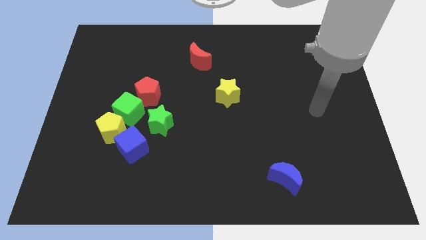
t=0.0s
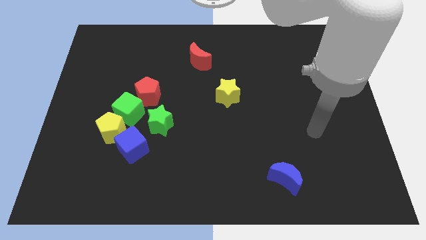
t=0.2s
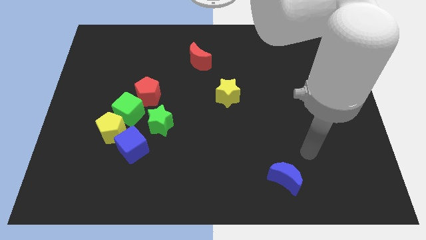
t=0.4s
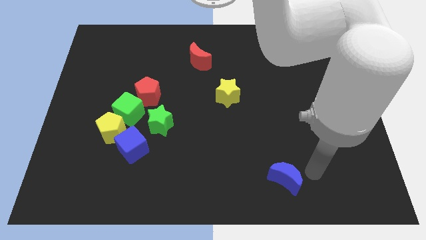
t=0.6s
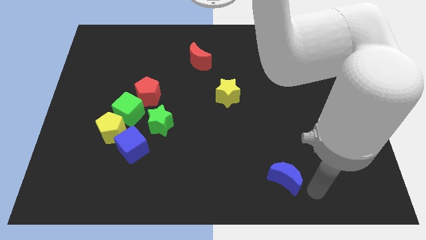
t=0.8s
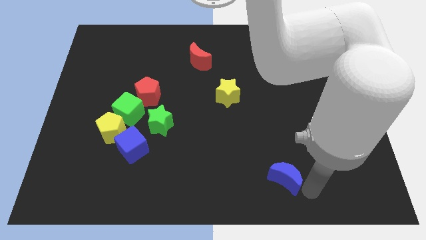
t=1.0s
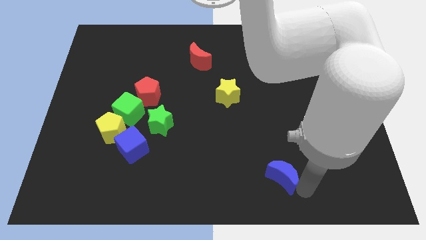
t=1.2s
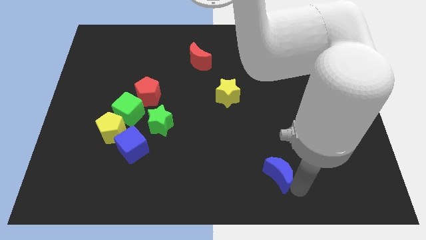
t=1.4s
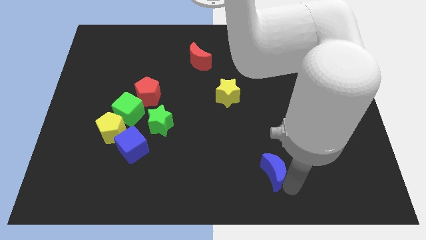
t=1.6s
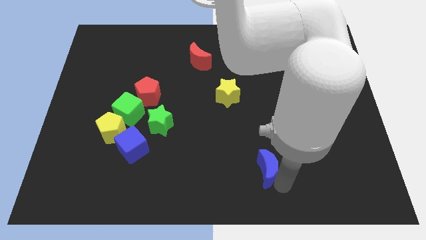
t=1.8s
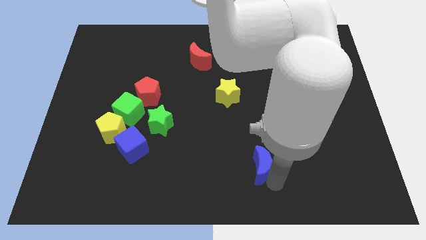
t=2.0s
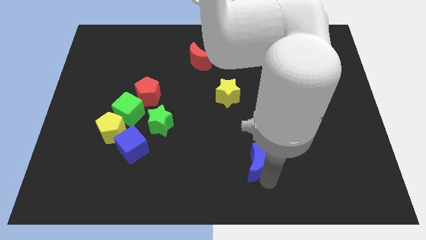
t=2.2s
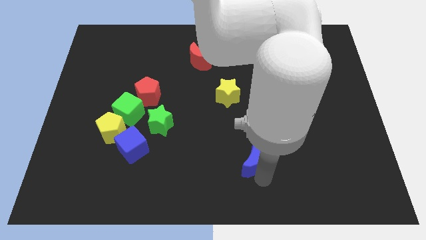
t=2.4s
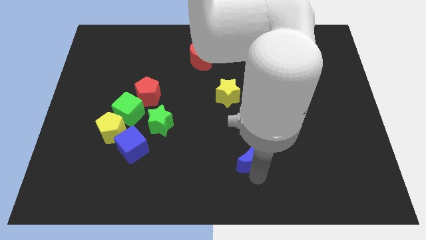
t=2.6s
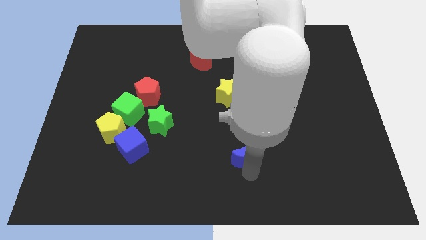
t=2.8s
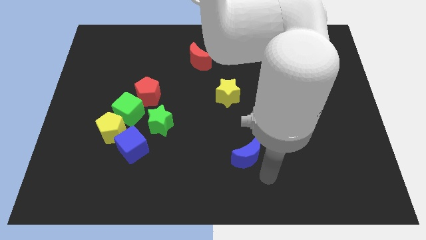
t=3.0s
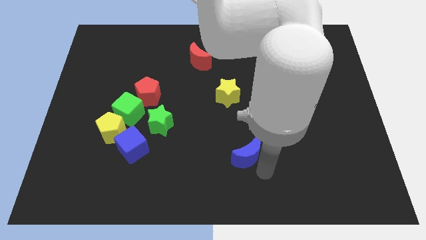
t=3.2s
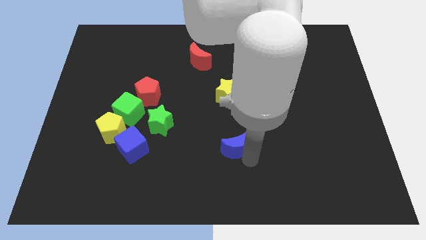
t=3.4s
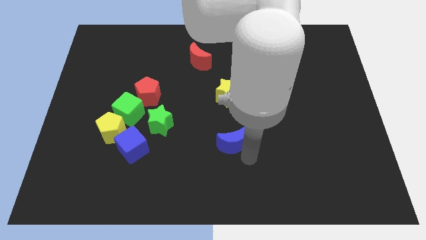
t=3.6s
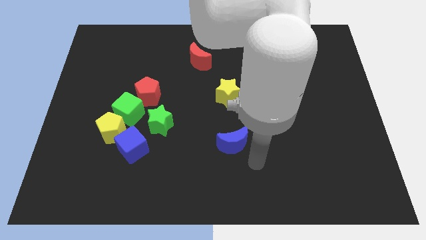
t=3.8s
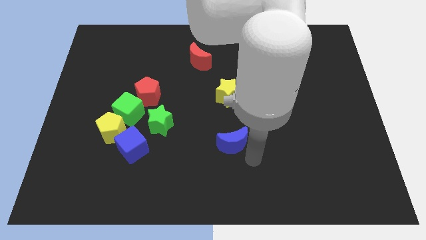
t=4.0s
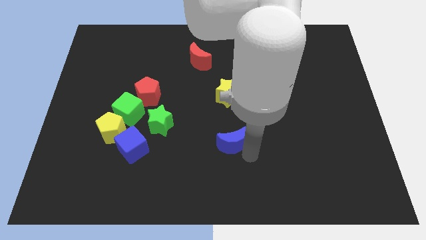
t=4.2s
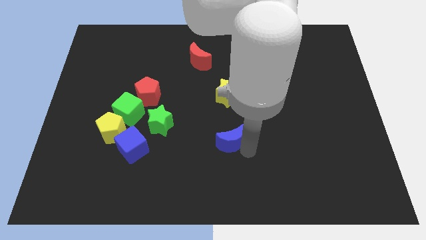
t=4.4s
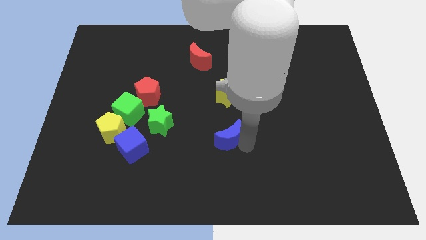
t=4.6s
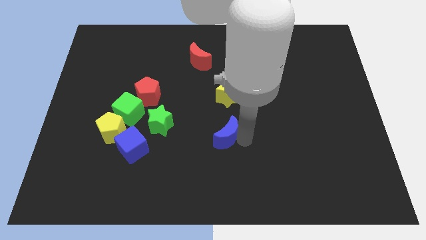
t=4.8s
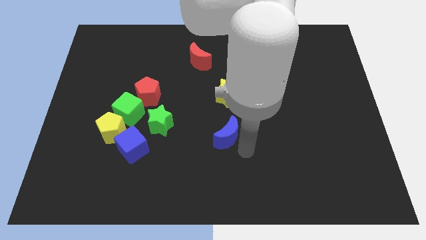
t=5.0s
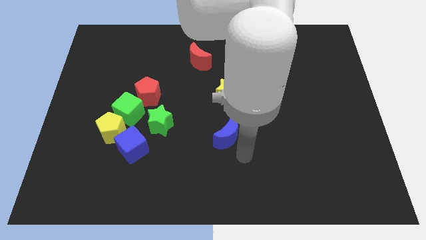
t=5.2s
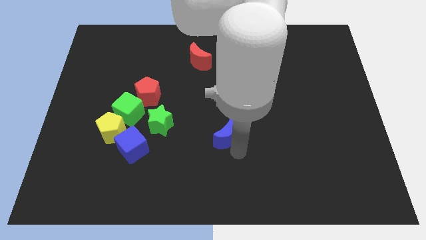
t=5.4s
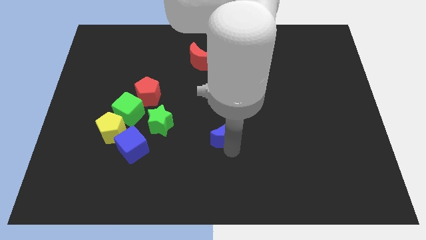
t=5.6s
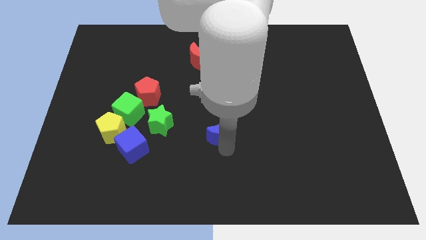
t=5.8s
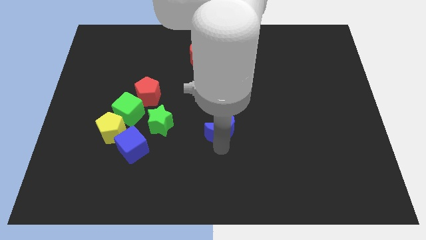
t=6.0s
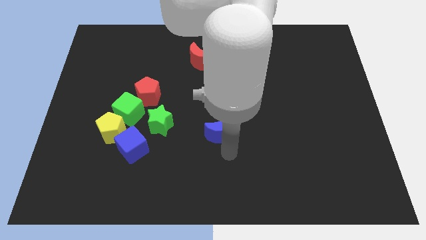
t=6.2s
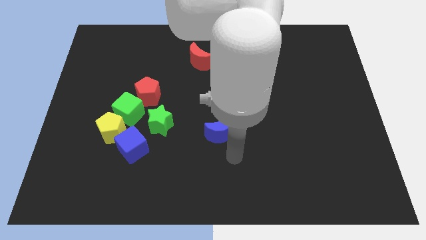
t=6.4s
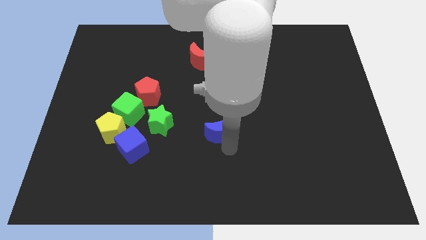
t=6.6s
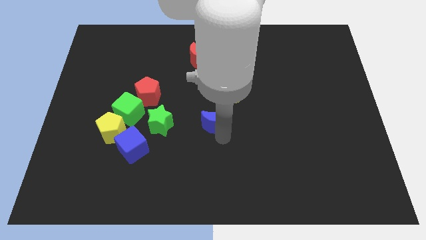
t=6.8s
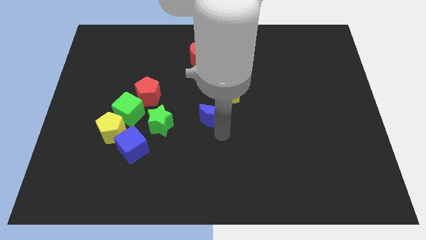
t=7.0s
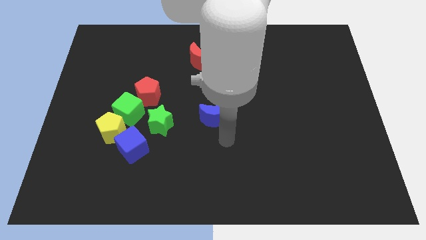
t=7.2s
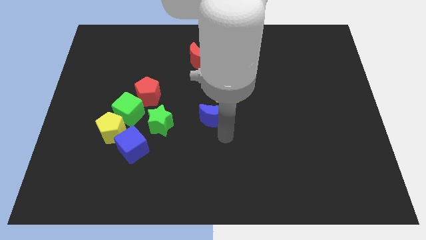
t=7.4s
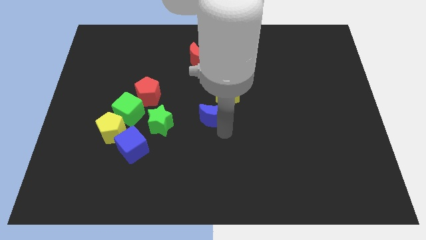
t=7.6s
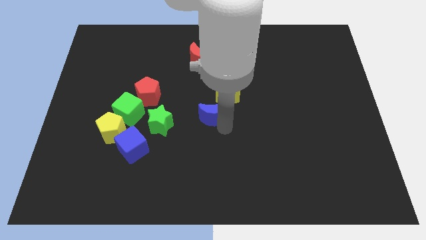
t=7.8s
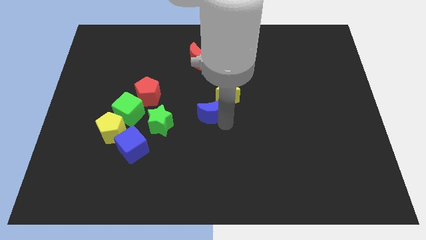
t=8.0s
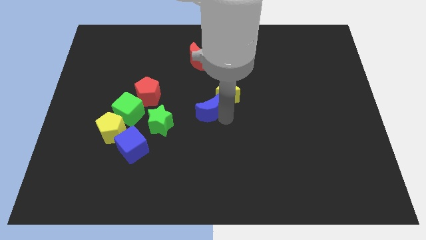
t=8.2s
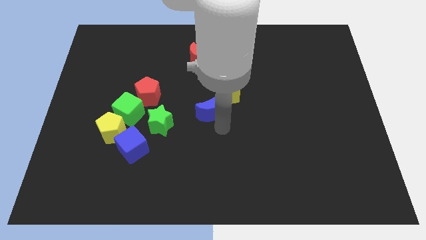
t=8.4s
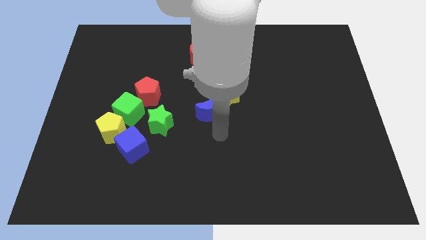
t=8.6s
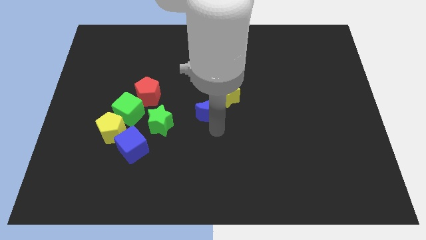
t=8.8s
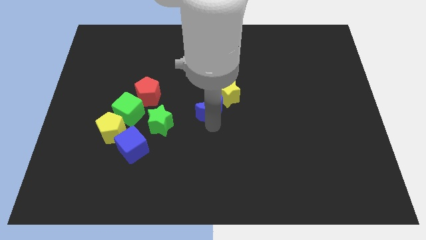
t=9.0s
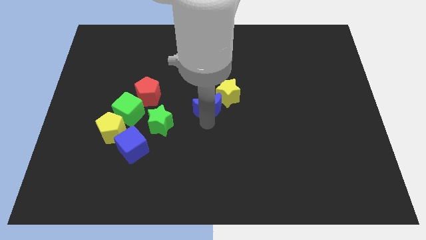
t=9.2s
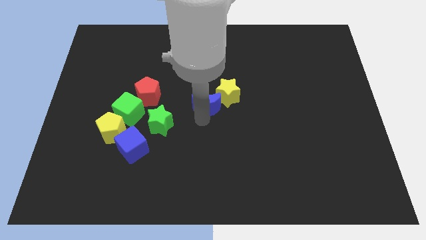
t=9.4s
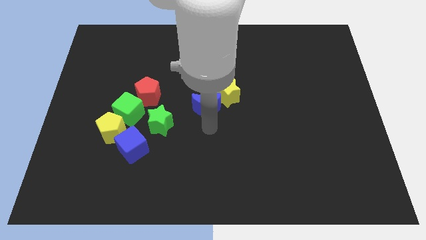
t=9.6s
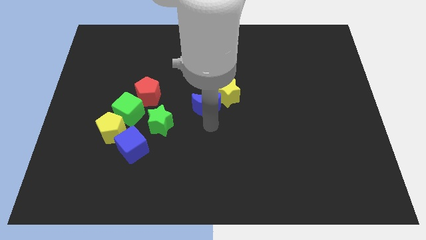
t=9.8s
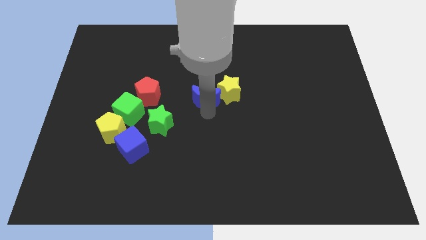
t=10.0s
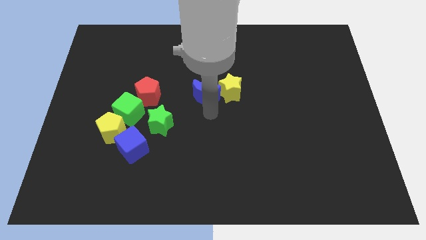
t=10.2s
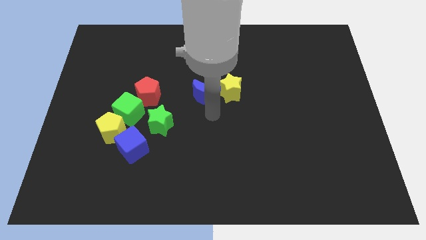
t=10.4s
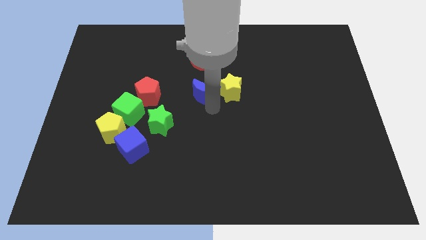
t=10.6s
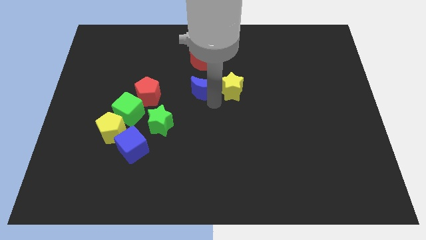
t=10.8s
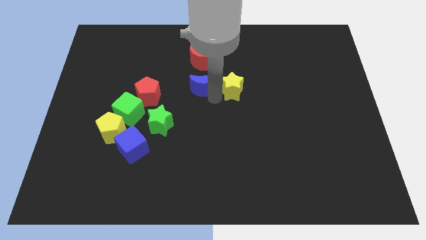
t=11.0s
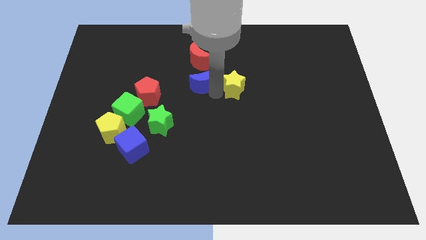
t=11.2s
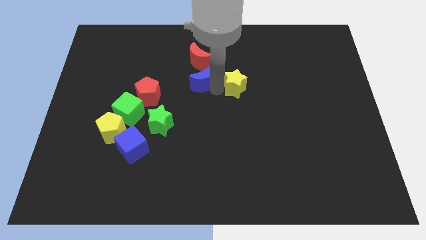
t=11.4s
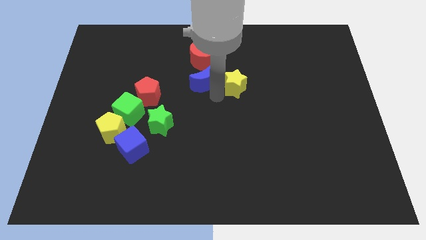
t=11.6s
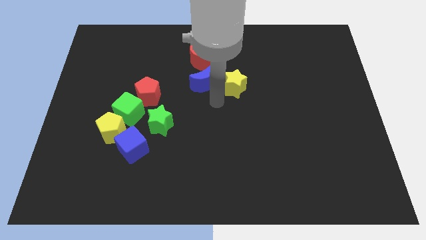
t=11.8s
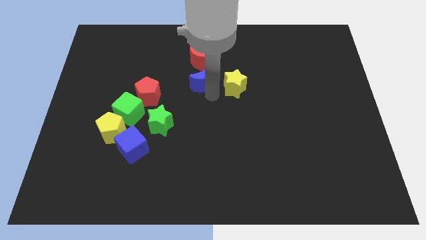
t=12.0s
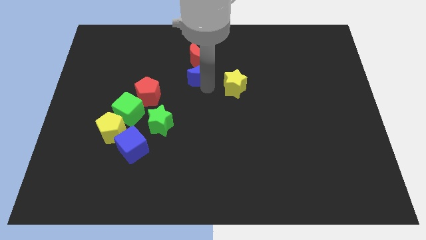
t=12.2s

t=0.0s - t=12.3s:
push the blue moon close to the red moon

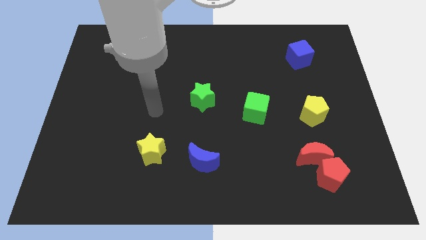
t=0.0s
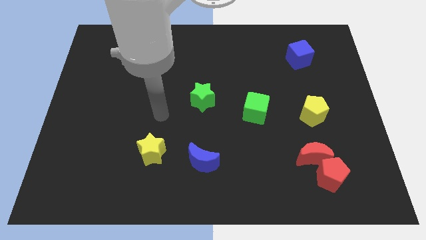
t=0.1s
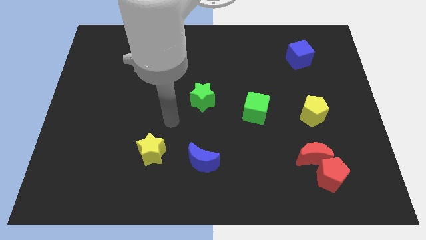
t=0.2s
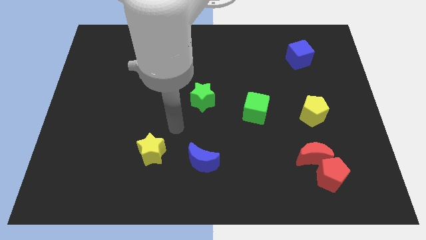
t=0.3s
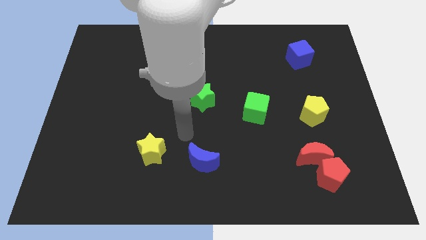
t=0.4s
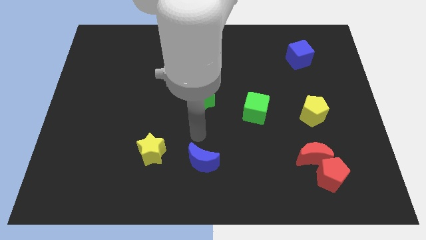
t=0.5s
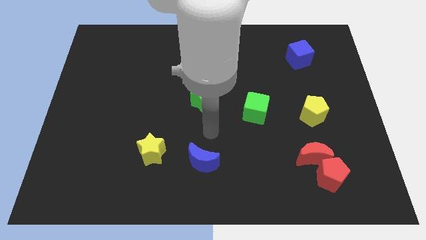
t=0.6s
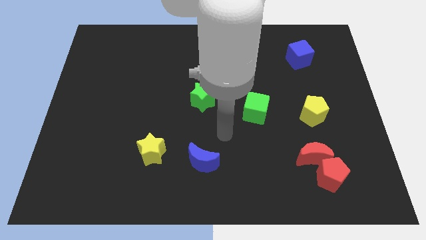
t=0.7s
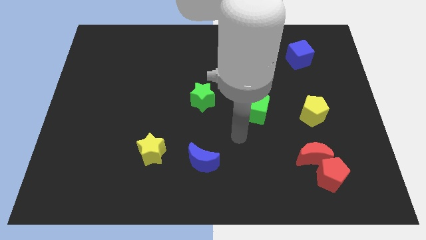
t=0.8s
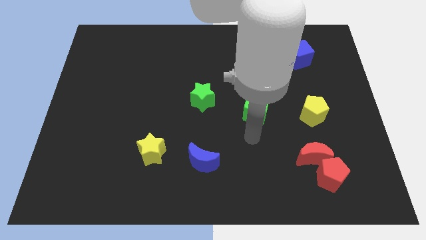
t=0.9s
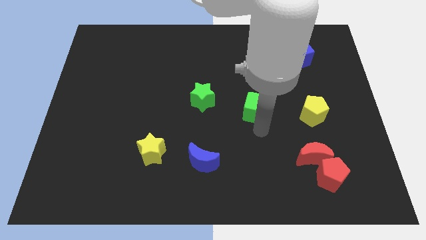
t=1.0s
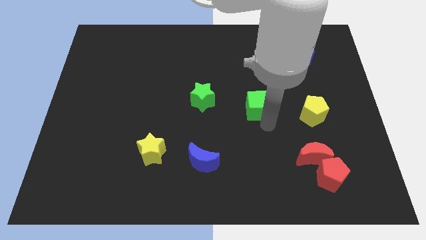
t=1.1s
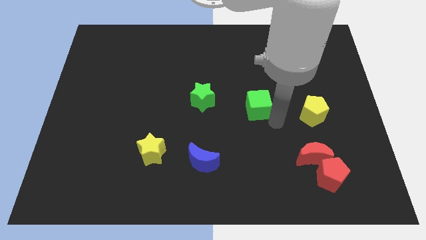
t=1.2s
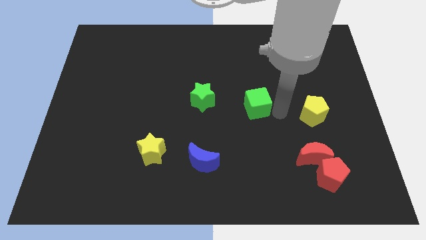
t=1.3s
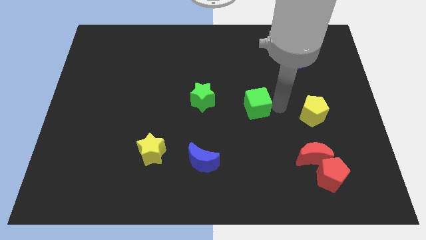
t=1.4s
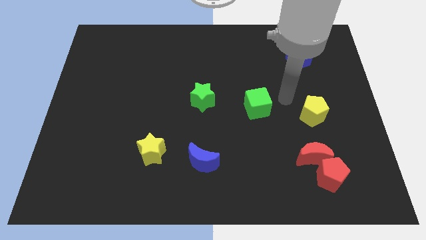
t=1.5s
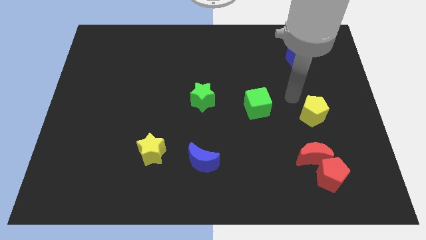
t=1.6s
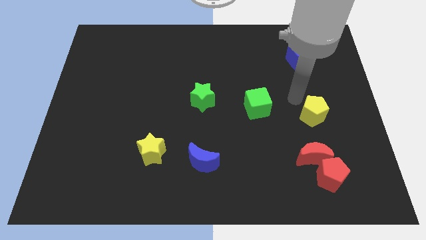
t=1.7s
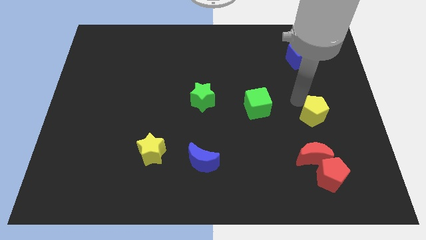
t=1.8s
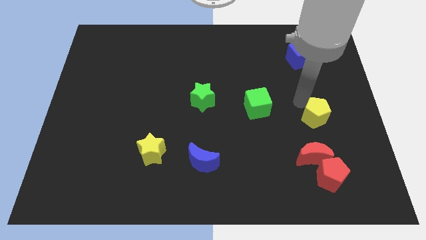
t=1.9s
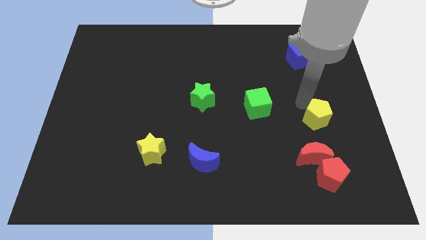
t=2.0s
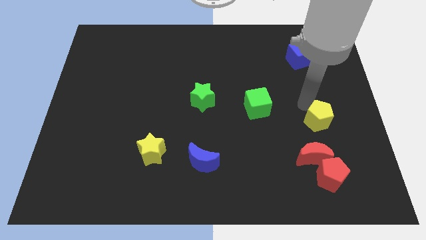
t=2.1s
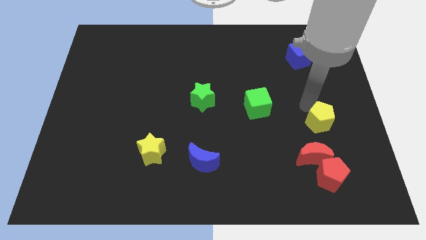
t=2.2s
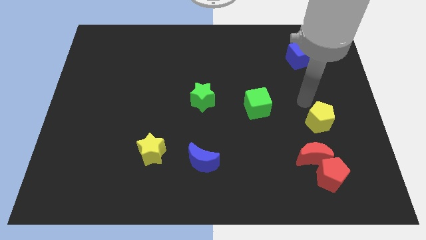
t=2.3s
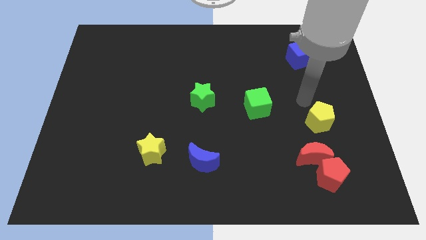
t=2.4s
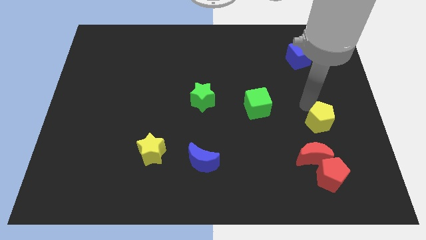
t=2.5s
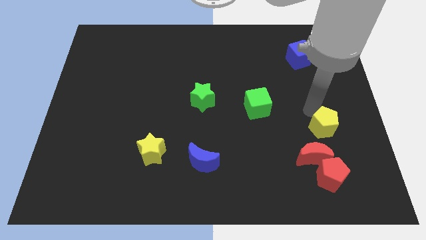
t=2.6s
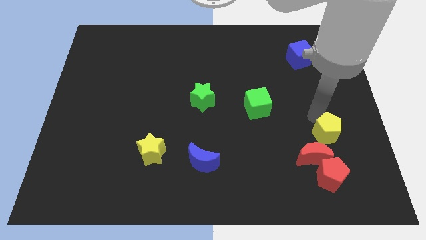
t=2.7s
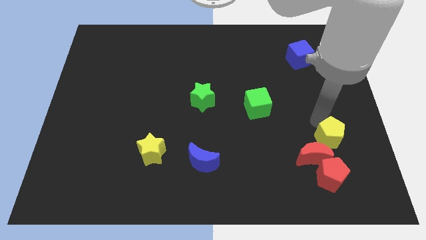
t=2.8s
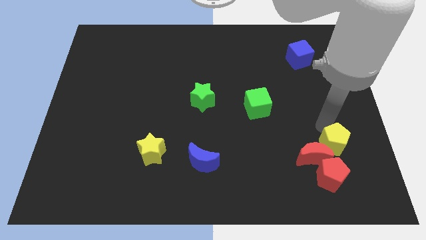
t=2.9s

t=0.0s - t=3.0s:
slide the yellow pentagon close to the red moon
